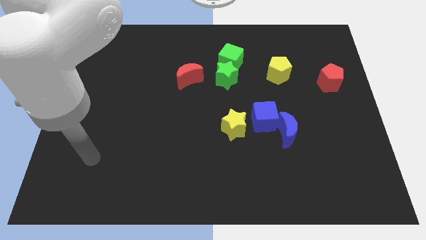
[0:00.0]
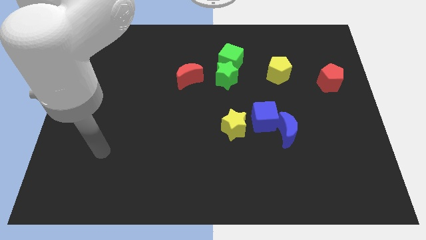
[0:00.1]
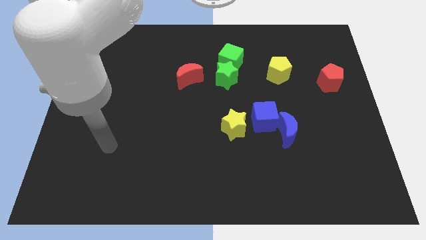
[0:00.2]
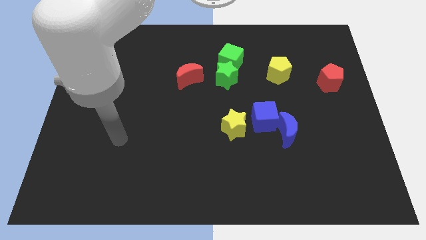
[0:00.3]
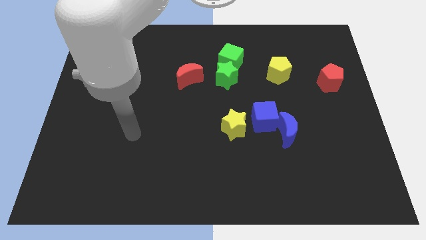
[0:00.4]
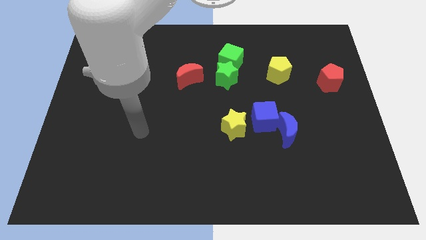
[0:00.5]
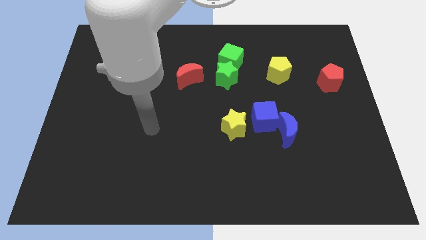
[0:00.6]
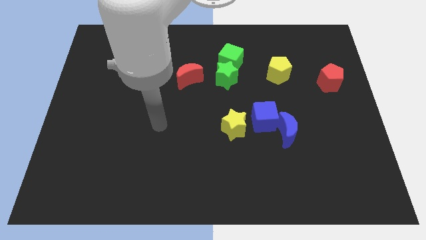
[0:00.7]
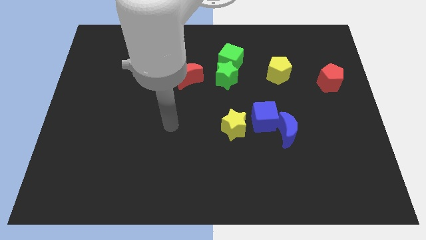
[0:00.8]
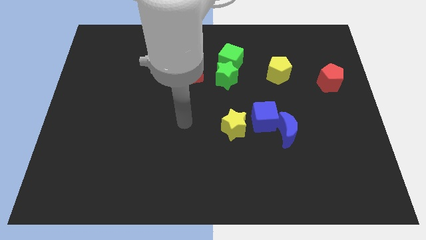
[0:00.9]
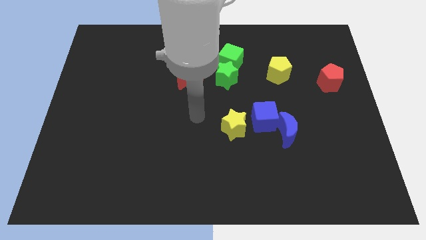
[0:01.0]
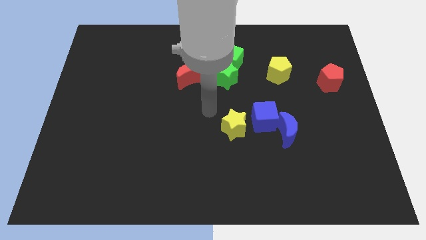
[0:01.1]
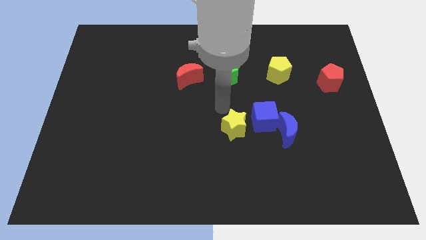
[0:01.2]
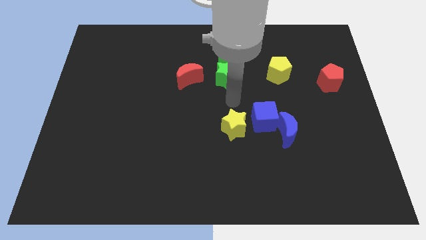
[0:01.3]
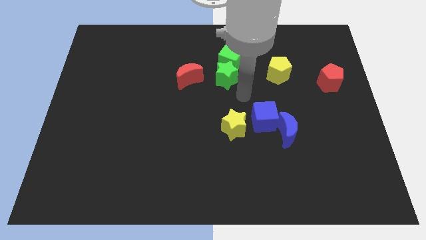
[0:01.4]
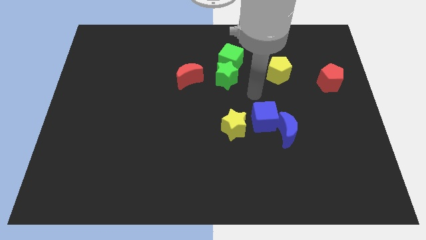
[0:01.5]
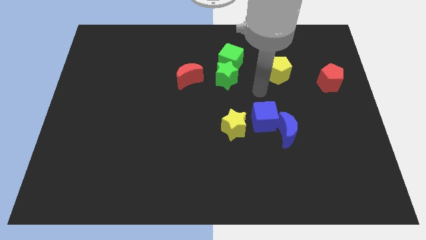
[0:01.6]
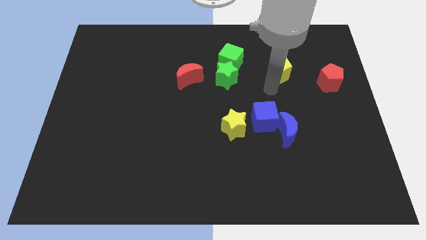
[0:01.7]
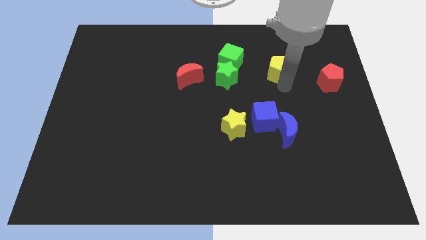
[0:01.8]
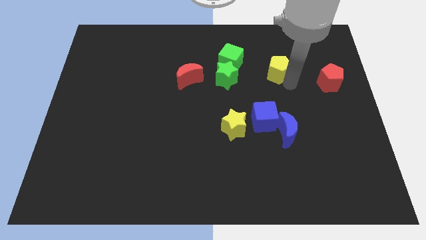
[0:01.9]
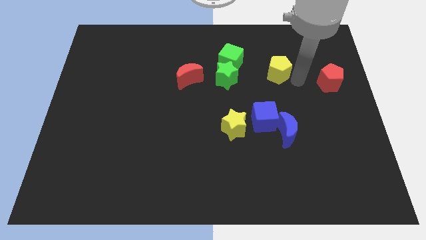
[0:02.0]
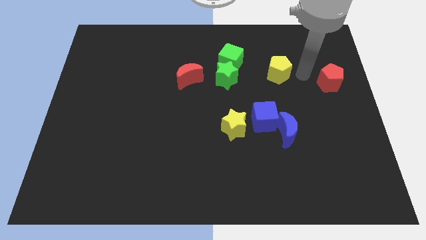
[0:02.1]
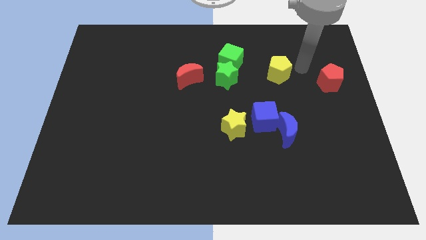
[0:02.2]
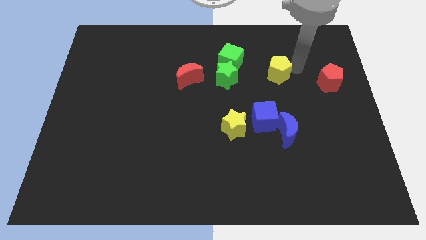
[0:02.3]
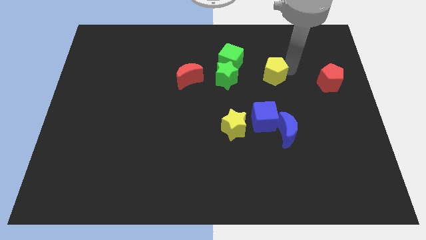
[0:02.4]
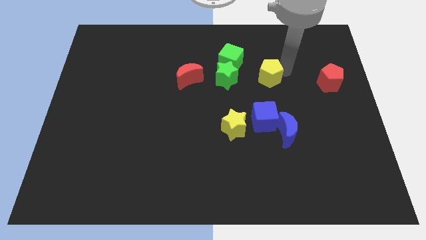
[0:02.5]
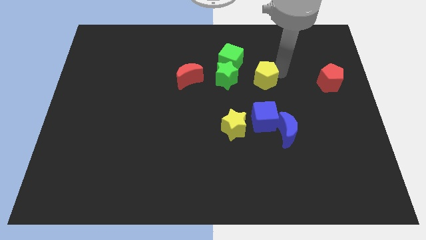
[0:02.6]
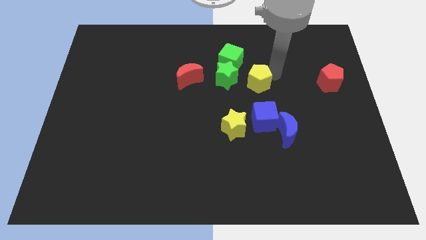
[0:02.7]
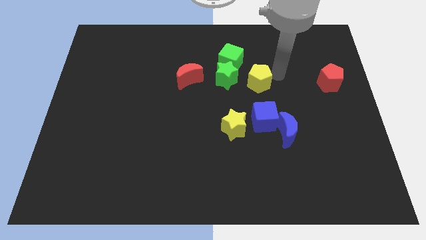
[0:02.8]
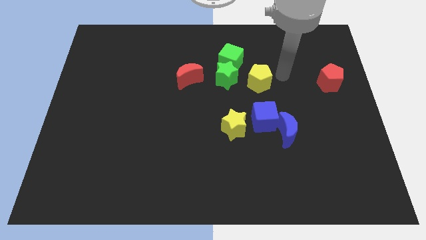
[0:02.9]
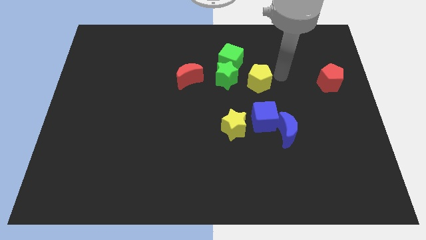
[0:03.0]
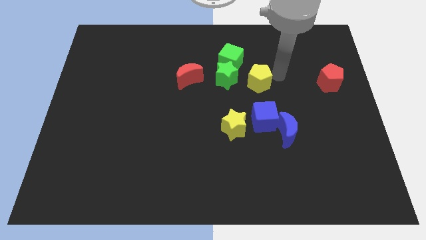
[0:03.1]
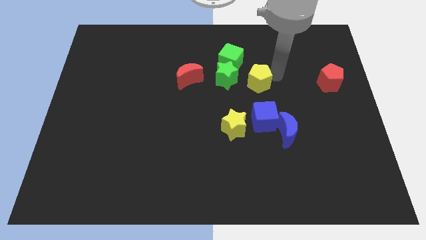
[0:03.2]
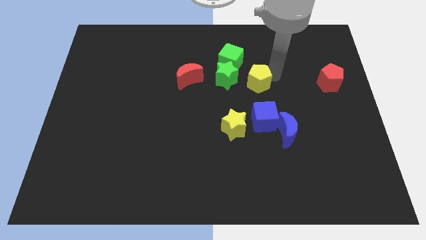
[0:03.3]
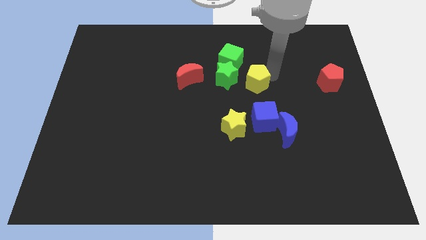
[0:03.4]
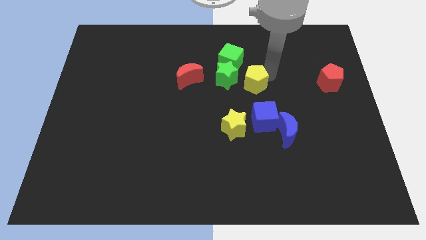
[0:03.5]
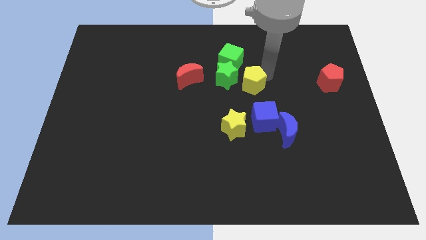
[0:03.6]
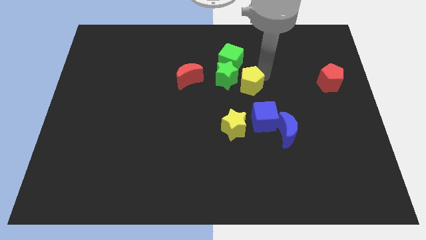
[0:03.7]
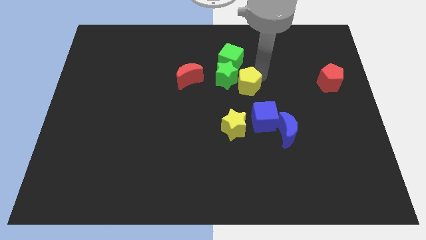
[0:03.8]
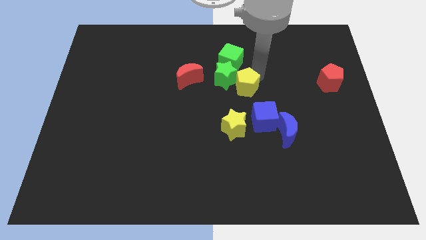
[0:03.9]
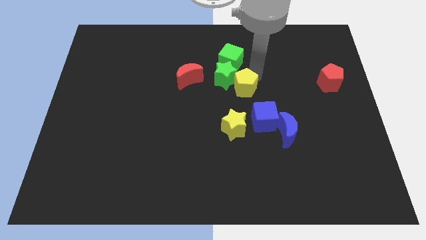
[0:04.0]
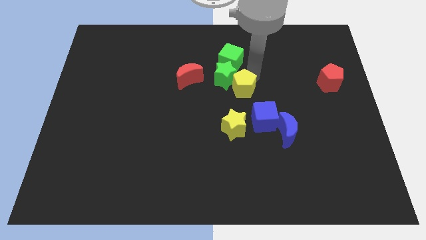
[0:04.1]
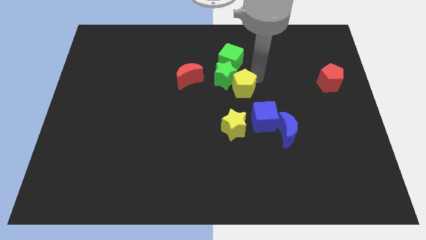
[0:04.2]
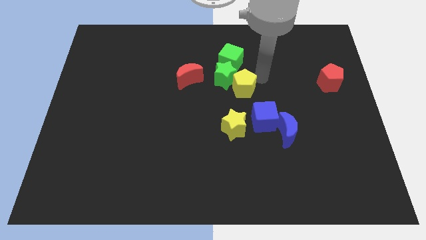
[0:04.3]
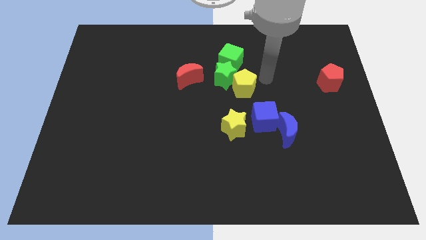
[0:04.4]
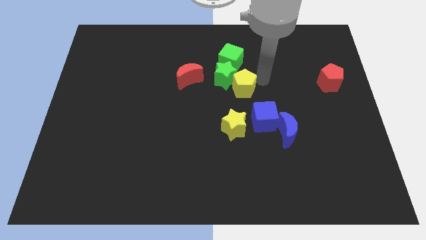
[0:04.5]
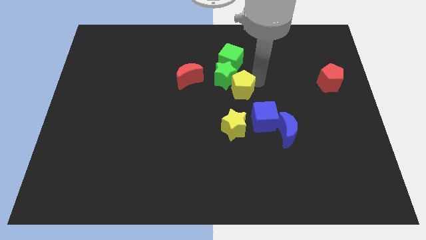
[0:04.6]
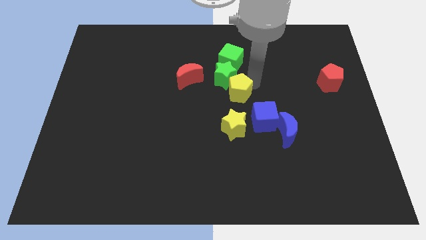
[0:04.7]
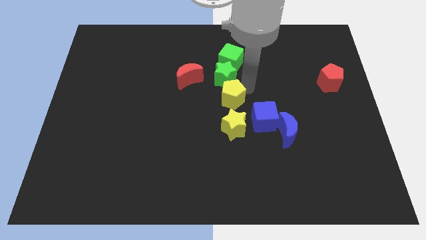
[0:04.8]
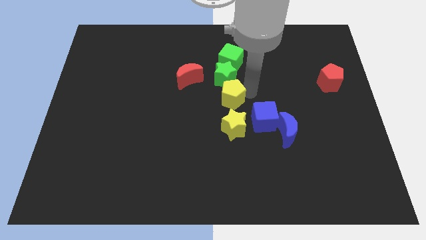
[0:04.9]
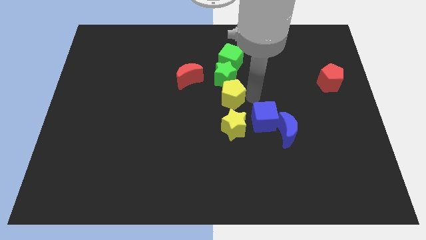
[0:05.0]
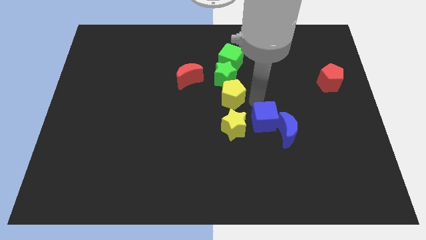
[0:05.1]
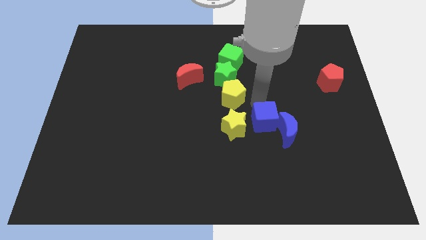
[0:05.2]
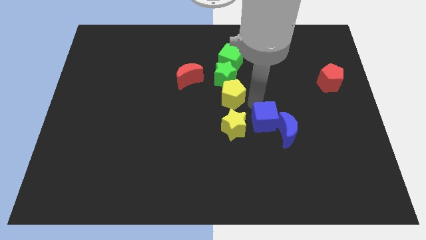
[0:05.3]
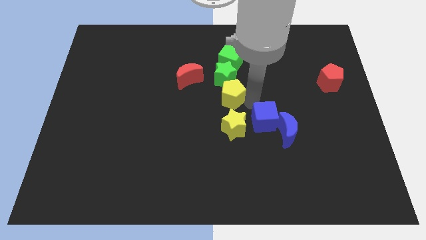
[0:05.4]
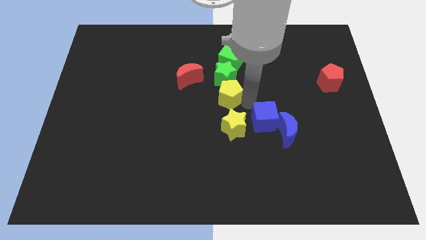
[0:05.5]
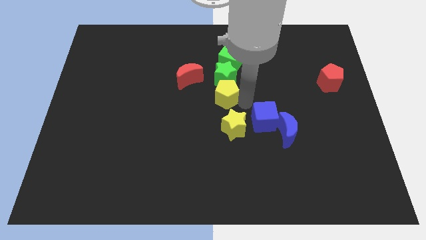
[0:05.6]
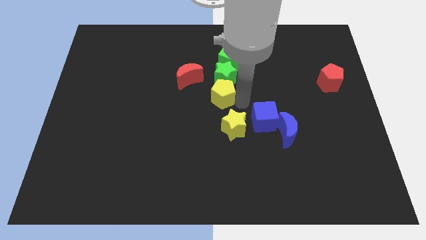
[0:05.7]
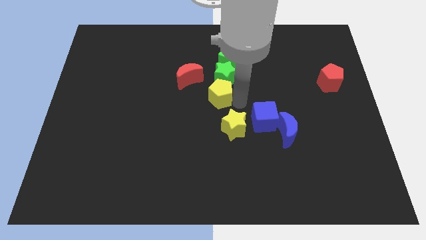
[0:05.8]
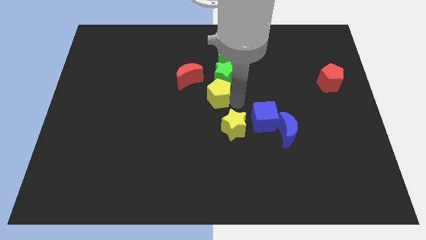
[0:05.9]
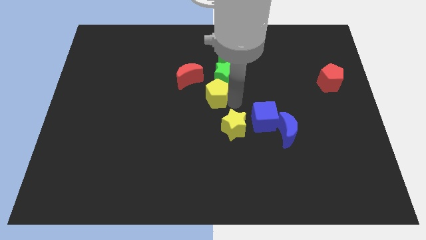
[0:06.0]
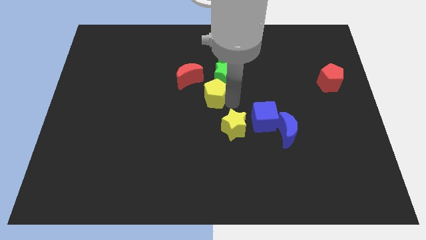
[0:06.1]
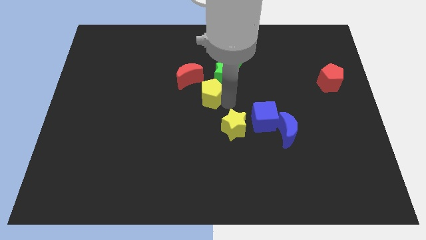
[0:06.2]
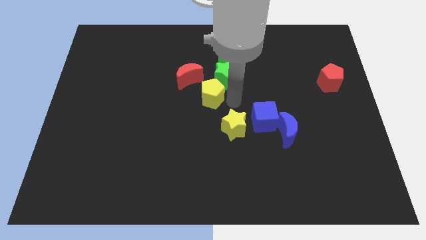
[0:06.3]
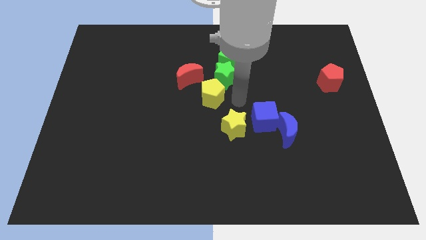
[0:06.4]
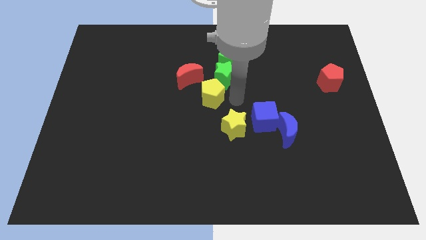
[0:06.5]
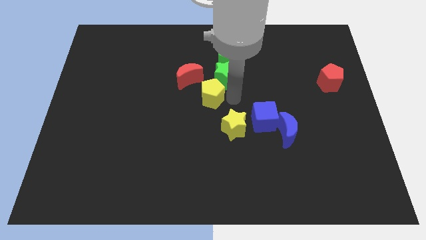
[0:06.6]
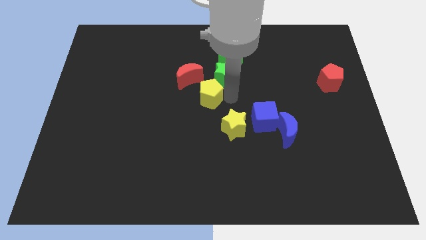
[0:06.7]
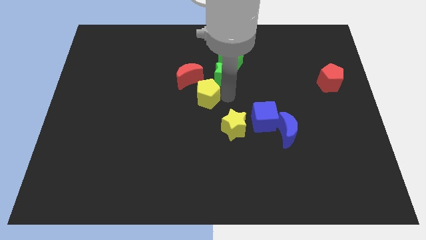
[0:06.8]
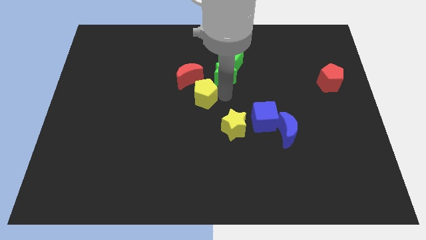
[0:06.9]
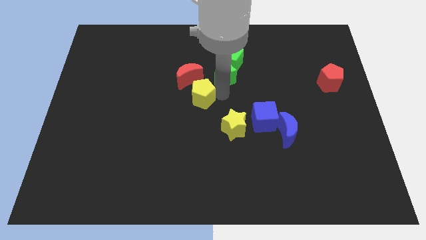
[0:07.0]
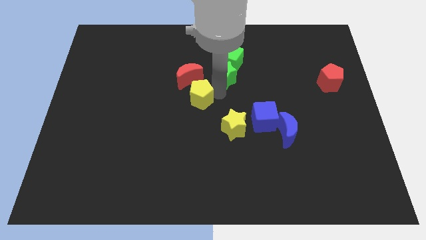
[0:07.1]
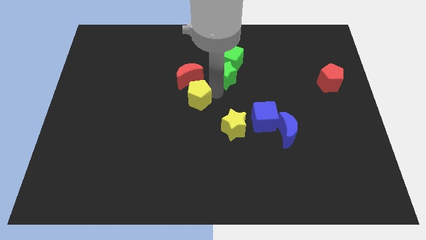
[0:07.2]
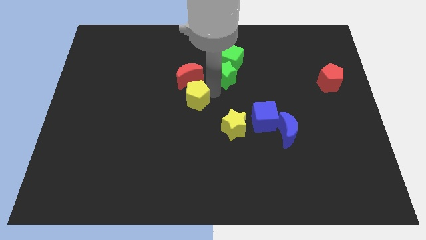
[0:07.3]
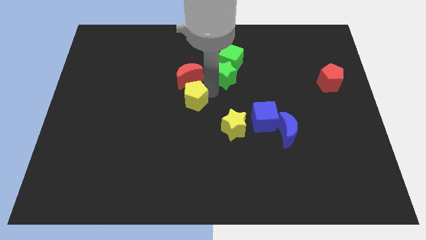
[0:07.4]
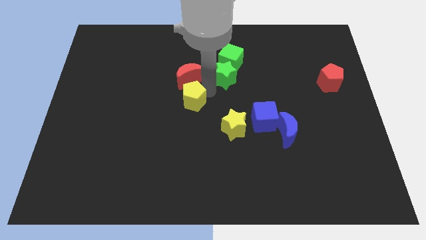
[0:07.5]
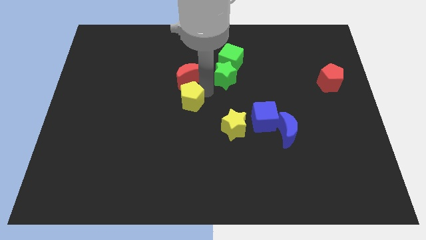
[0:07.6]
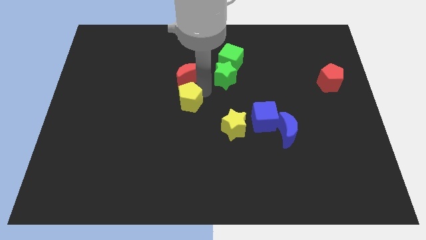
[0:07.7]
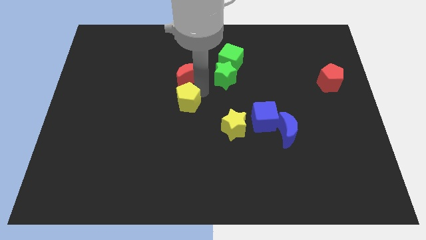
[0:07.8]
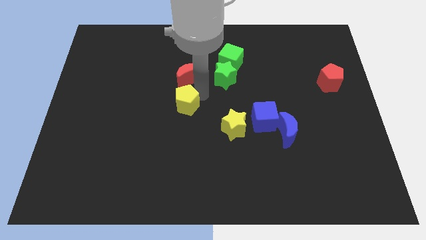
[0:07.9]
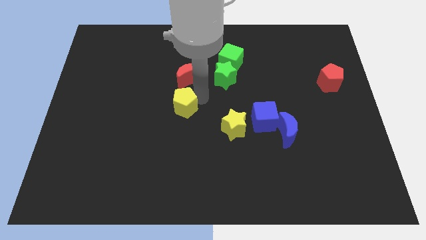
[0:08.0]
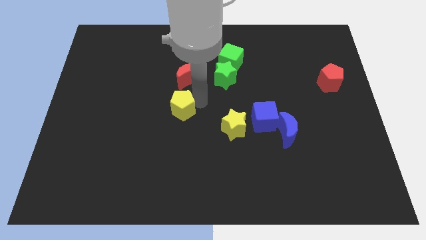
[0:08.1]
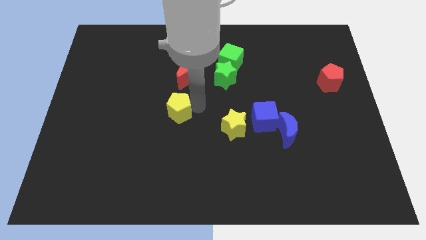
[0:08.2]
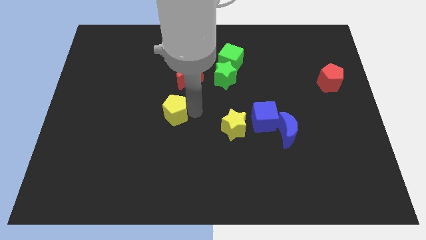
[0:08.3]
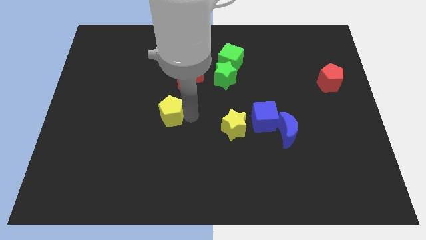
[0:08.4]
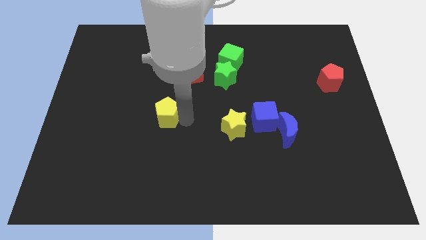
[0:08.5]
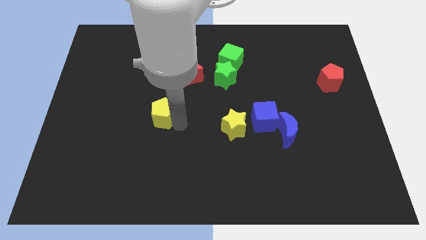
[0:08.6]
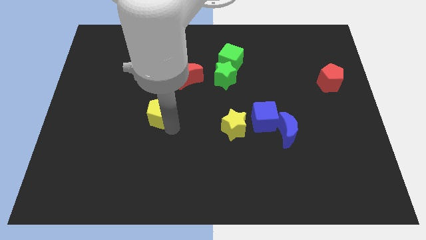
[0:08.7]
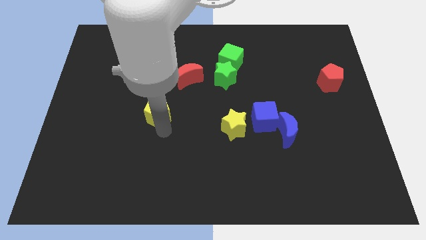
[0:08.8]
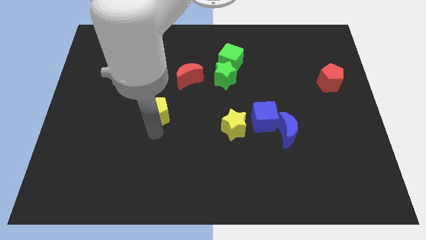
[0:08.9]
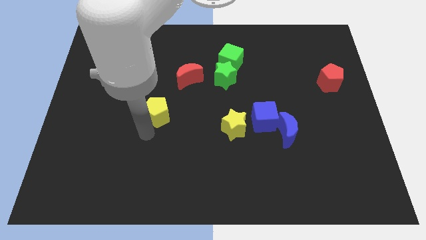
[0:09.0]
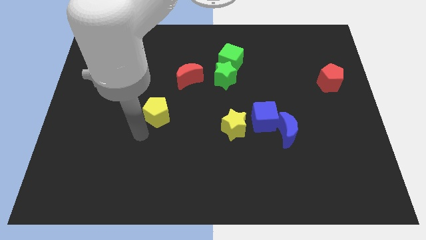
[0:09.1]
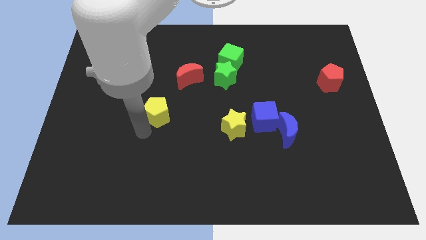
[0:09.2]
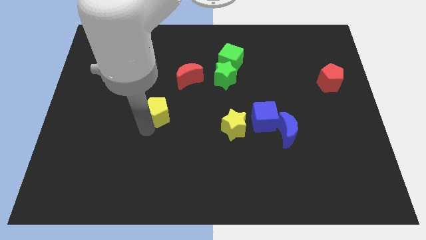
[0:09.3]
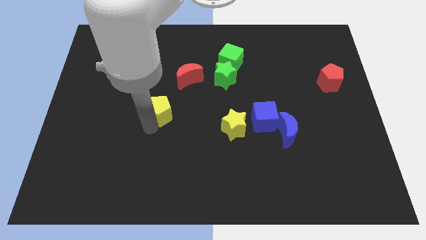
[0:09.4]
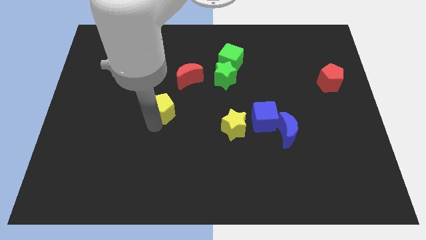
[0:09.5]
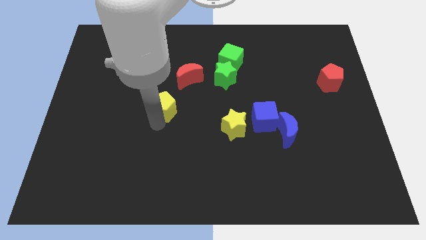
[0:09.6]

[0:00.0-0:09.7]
move the yellow pentagon left
